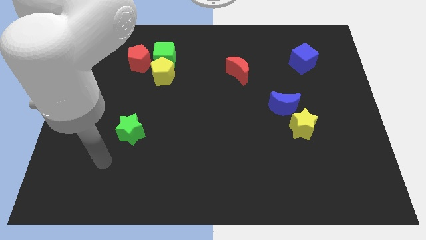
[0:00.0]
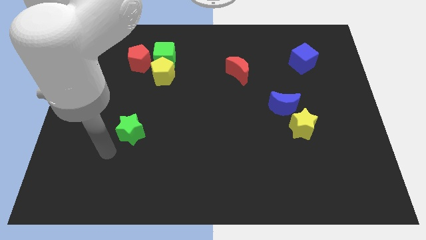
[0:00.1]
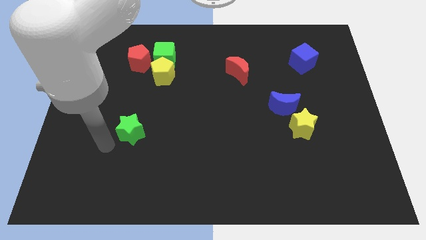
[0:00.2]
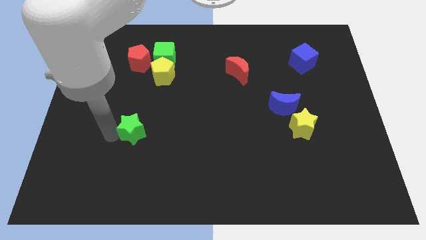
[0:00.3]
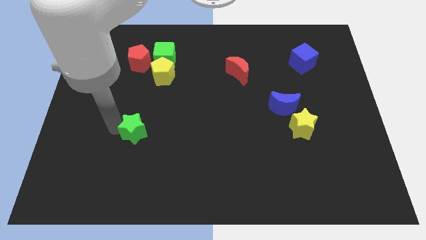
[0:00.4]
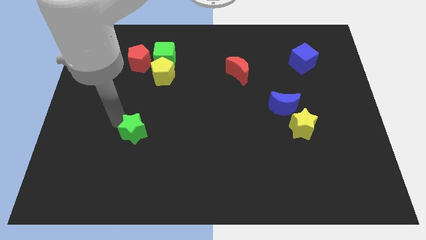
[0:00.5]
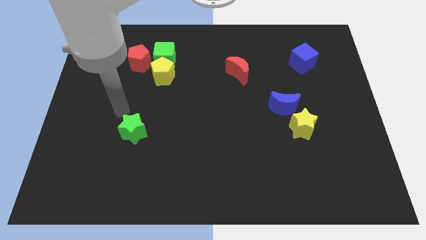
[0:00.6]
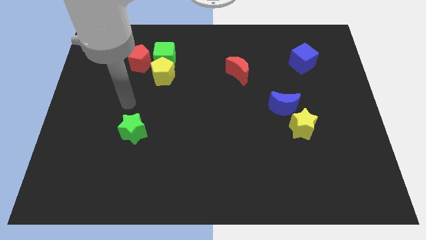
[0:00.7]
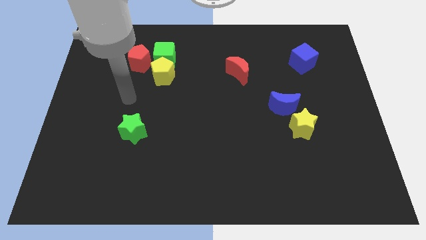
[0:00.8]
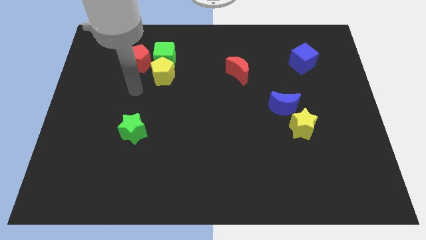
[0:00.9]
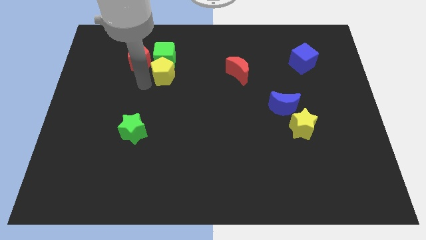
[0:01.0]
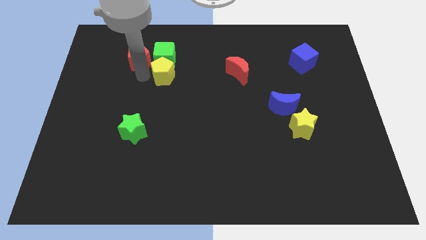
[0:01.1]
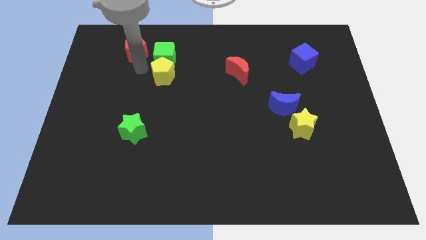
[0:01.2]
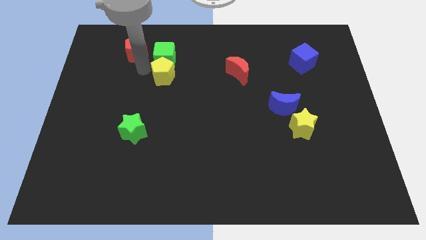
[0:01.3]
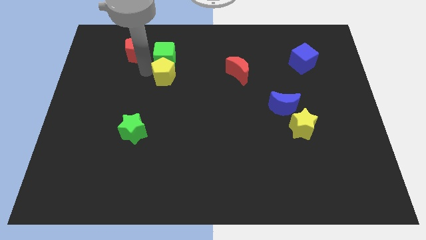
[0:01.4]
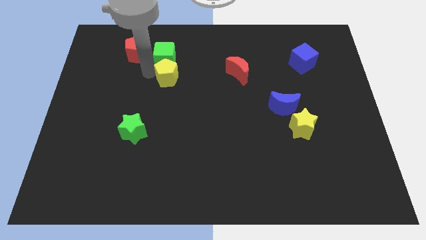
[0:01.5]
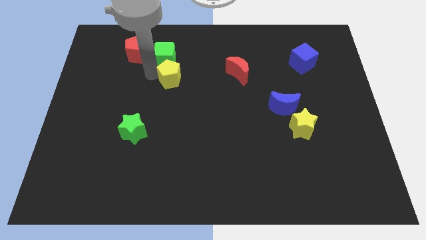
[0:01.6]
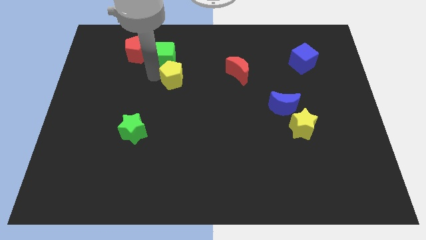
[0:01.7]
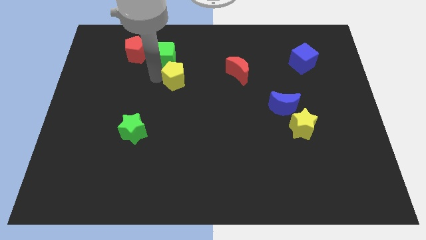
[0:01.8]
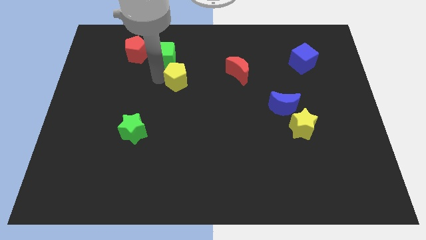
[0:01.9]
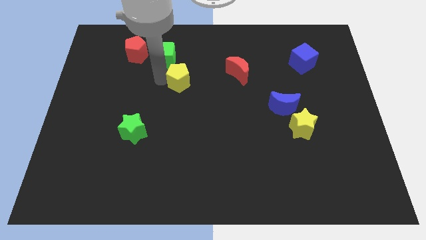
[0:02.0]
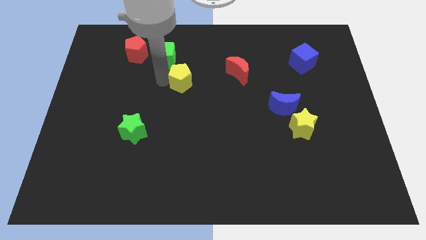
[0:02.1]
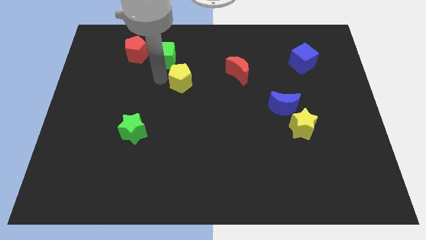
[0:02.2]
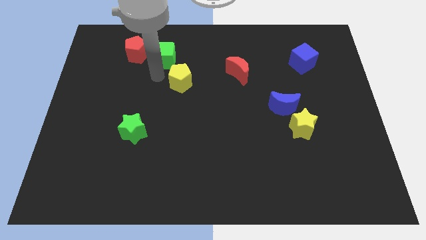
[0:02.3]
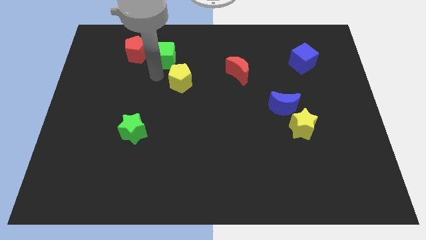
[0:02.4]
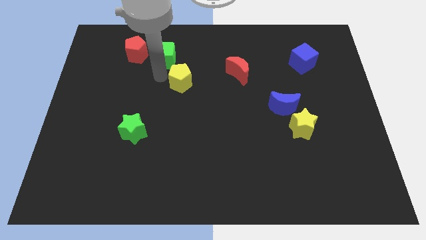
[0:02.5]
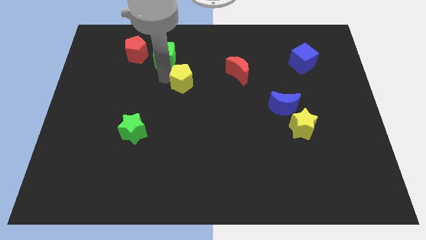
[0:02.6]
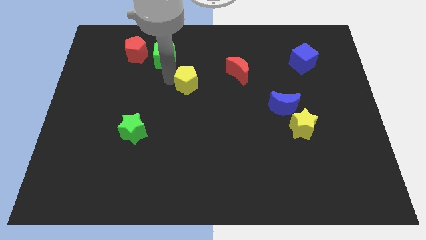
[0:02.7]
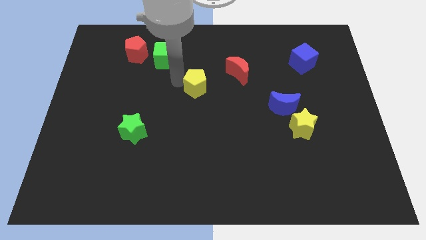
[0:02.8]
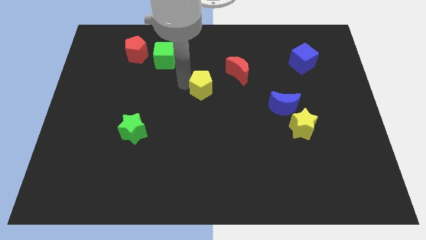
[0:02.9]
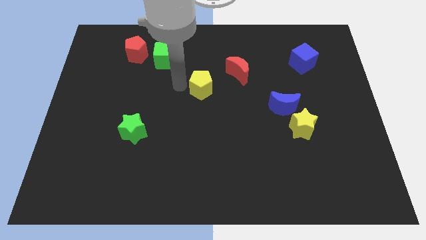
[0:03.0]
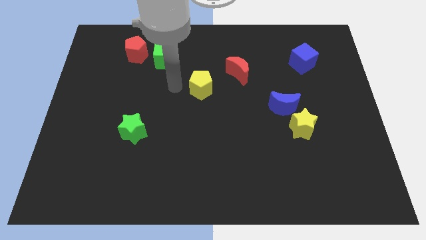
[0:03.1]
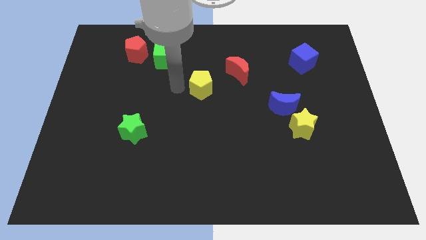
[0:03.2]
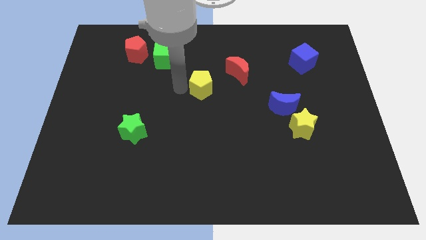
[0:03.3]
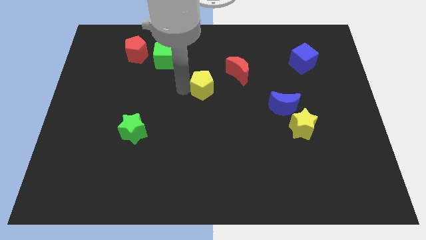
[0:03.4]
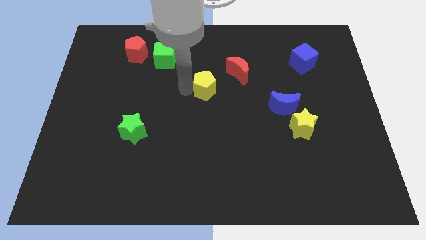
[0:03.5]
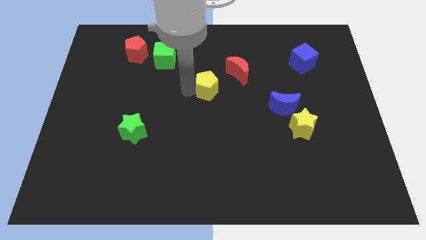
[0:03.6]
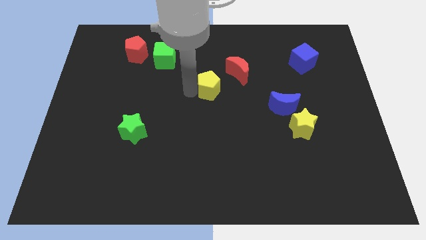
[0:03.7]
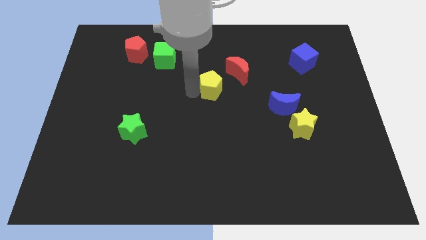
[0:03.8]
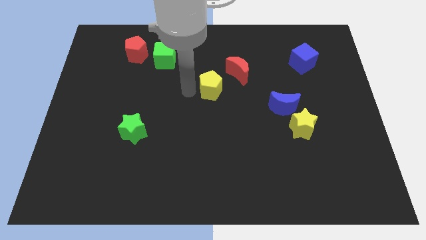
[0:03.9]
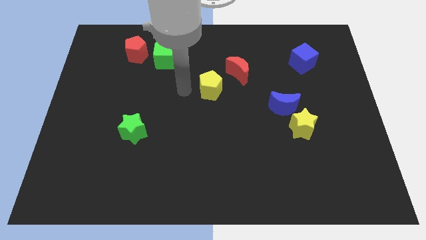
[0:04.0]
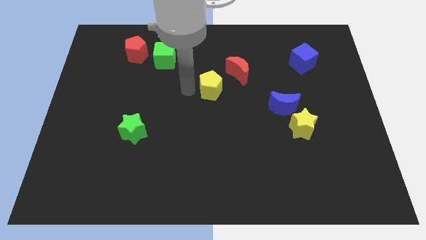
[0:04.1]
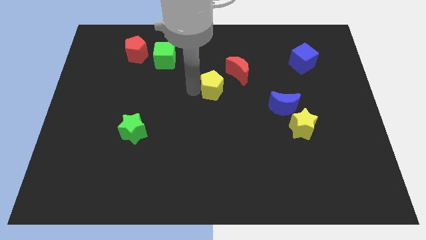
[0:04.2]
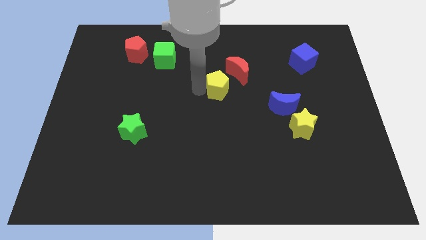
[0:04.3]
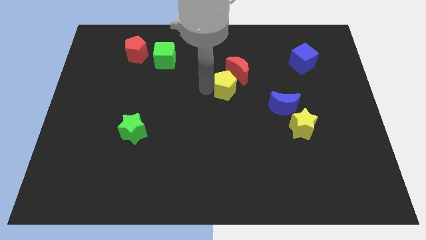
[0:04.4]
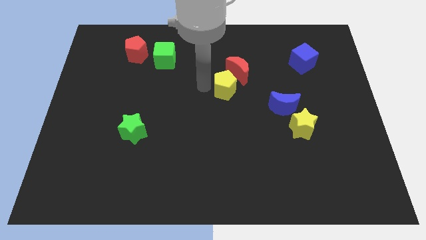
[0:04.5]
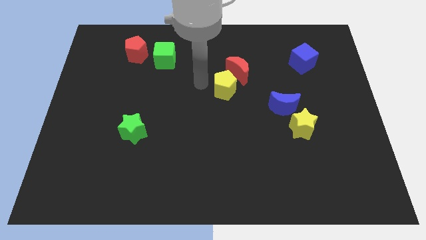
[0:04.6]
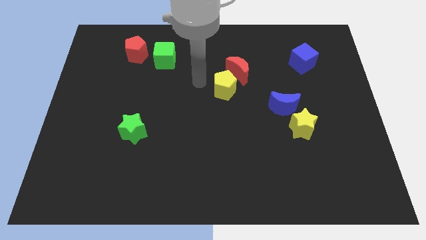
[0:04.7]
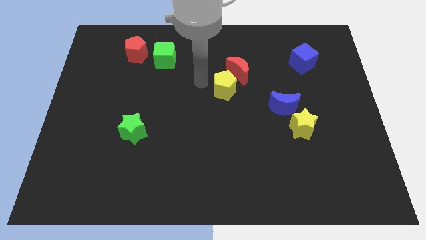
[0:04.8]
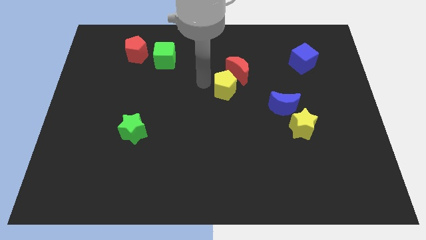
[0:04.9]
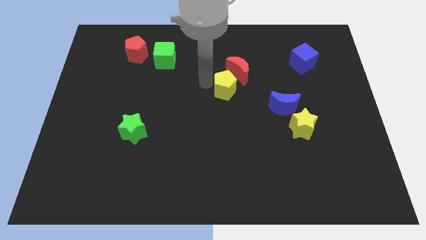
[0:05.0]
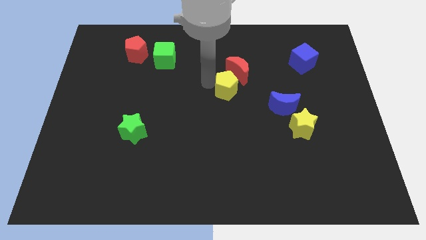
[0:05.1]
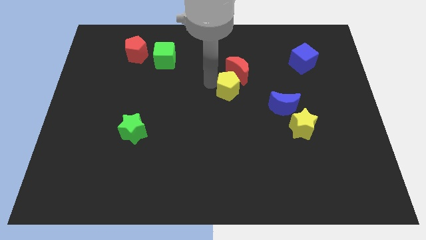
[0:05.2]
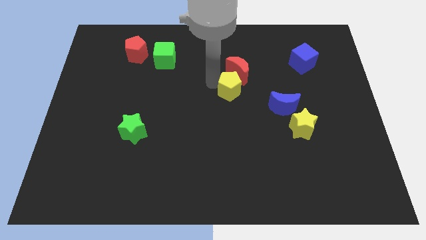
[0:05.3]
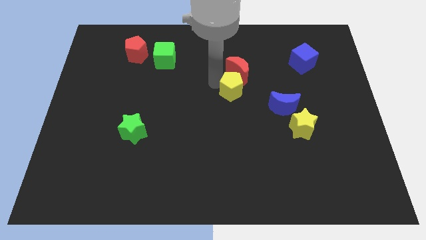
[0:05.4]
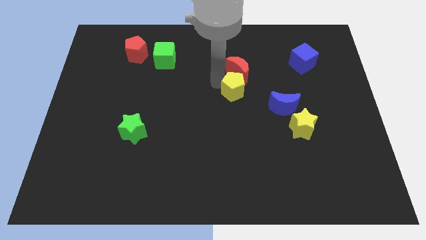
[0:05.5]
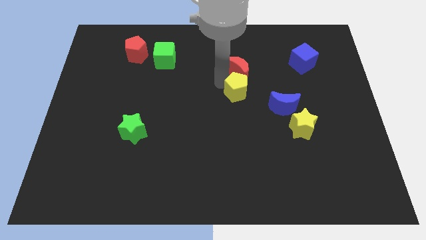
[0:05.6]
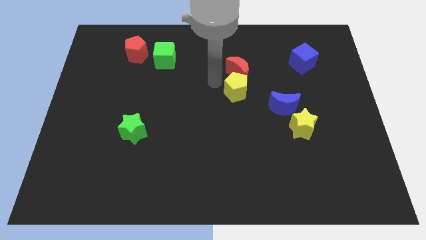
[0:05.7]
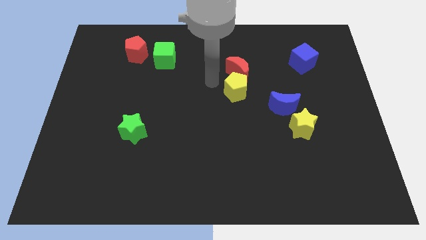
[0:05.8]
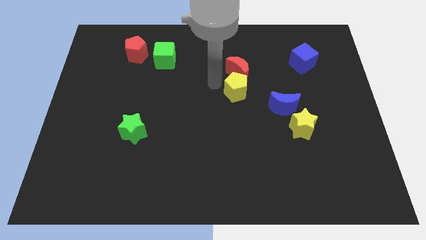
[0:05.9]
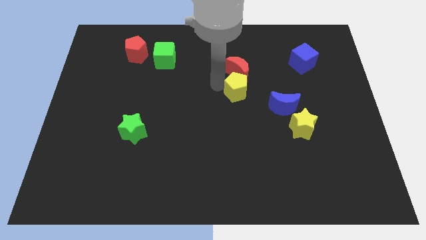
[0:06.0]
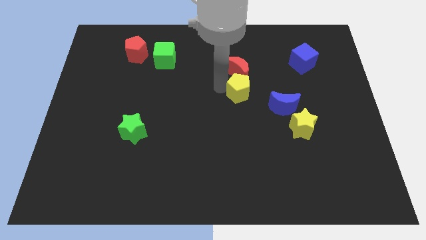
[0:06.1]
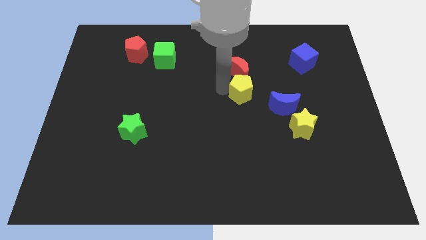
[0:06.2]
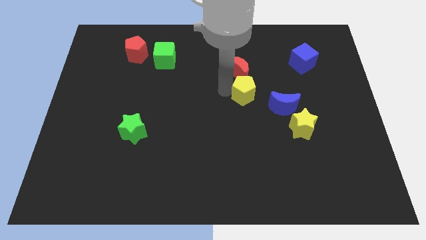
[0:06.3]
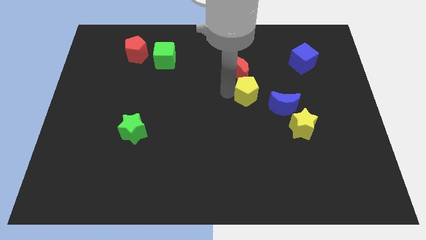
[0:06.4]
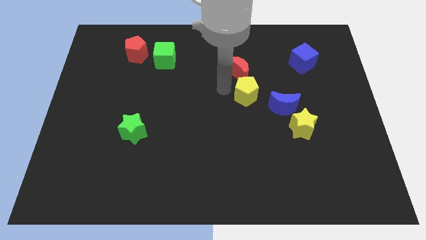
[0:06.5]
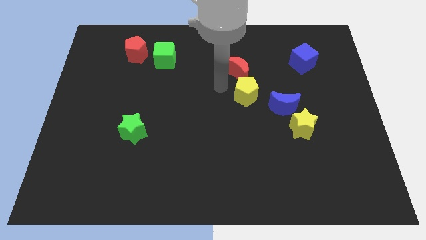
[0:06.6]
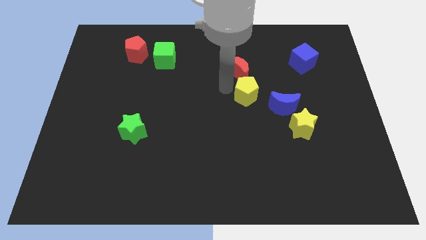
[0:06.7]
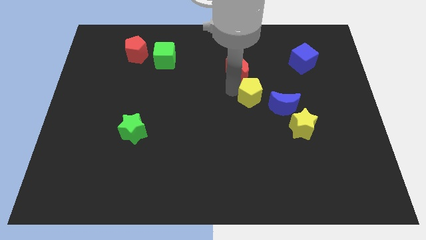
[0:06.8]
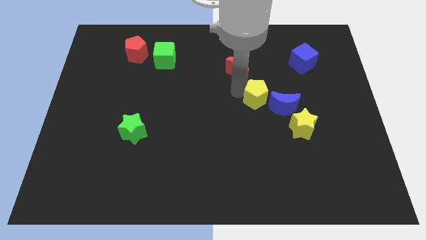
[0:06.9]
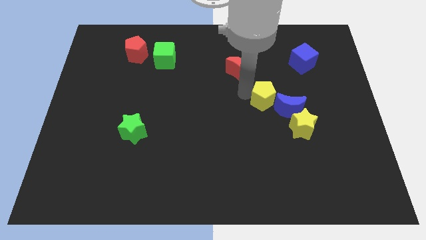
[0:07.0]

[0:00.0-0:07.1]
move the yellow pentagon diagonally up and to the left of the yellow star
